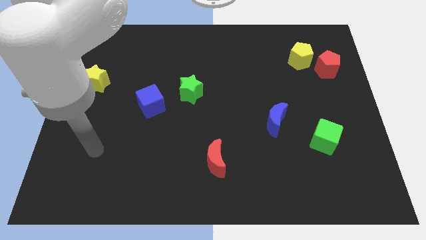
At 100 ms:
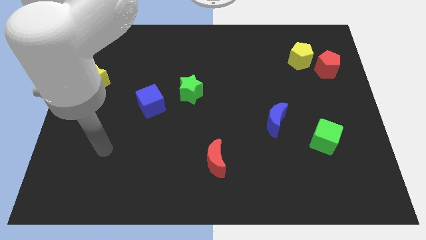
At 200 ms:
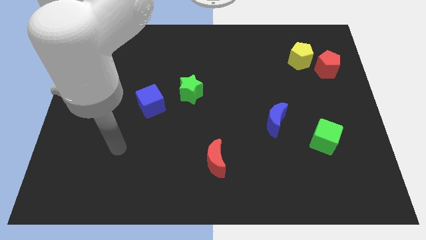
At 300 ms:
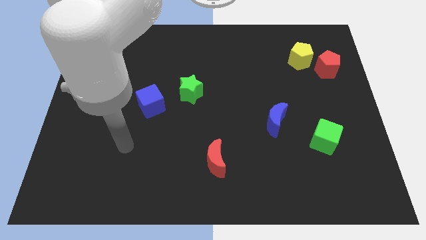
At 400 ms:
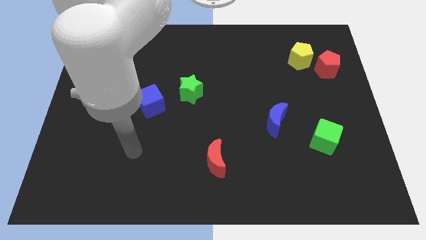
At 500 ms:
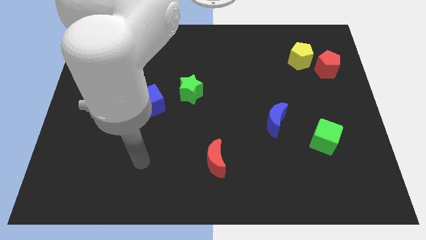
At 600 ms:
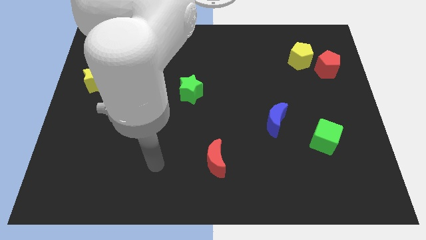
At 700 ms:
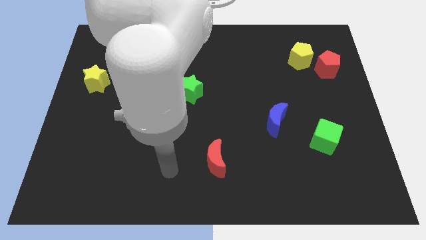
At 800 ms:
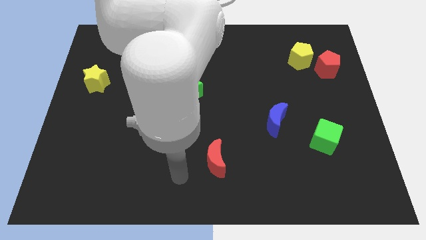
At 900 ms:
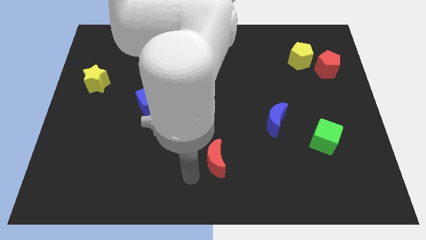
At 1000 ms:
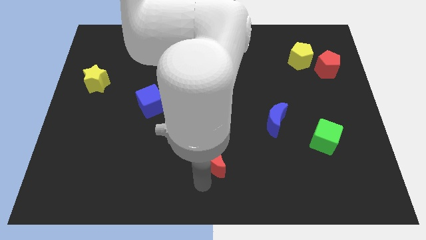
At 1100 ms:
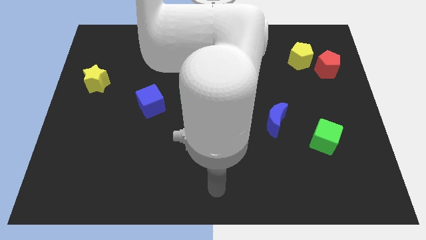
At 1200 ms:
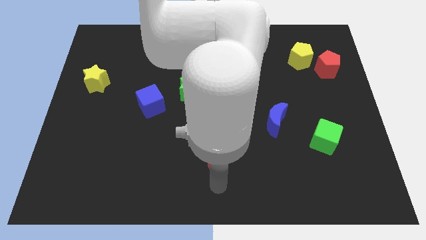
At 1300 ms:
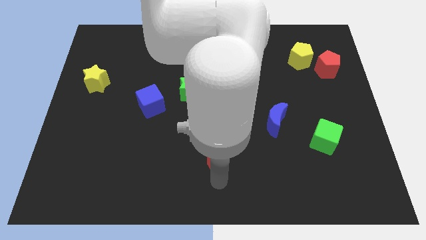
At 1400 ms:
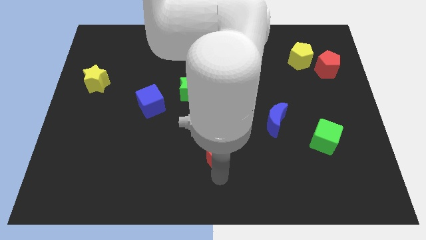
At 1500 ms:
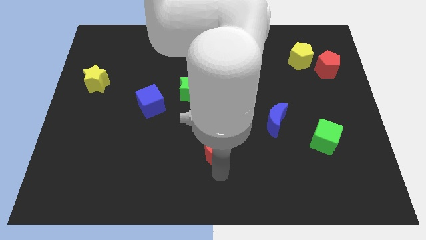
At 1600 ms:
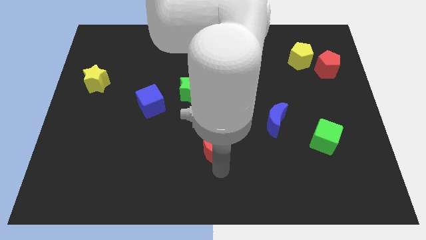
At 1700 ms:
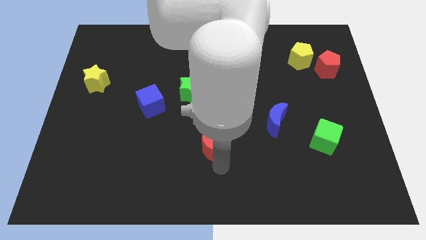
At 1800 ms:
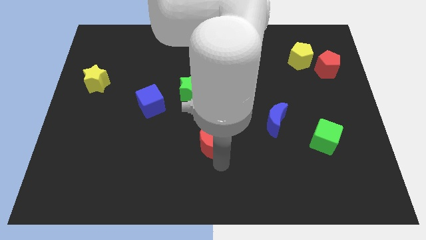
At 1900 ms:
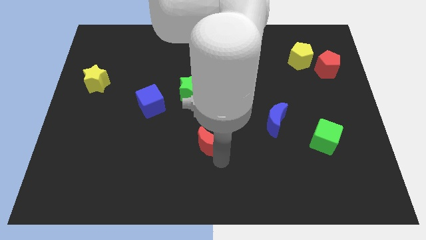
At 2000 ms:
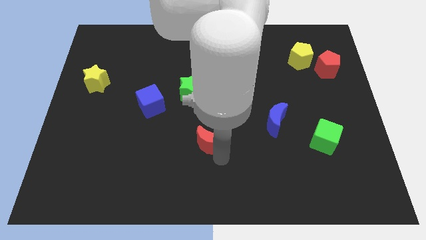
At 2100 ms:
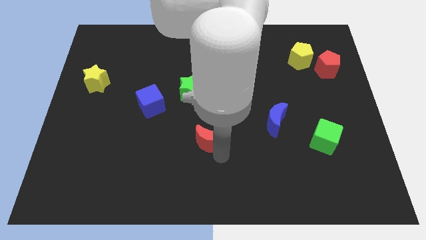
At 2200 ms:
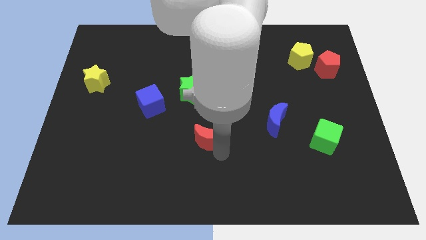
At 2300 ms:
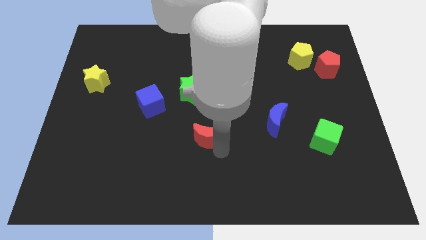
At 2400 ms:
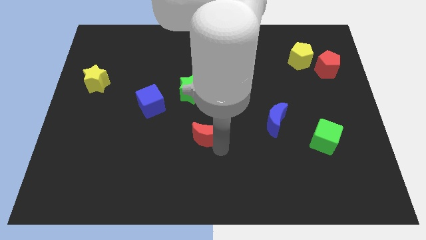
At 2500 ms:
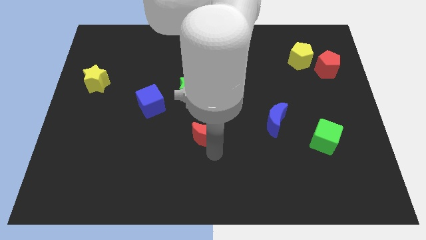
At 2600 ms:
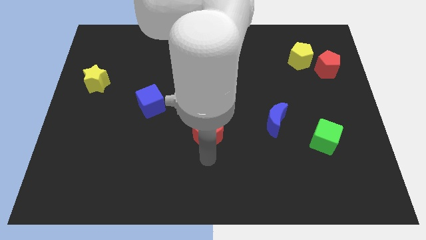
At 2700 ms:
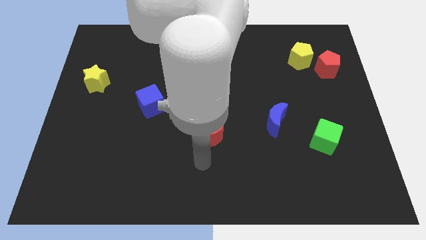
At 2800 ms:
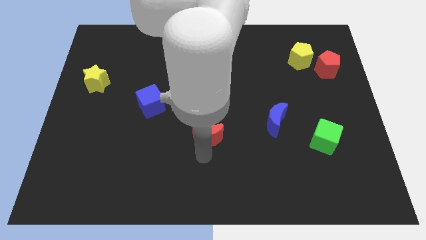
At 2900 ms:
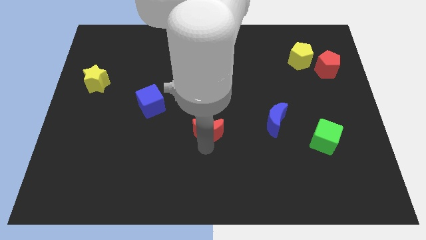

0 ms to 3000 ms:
slightly slide the red moon upwards

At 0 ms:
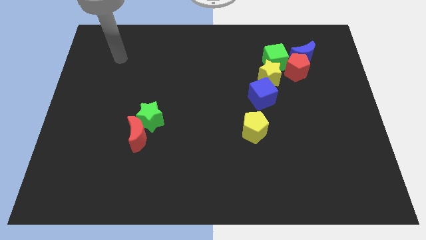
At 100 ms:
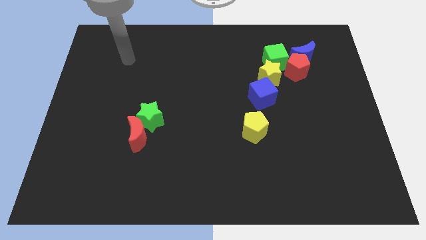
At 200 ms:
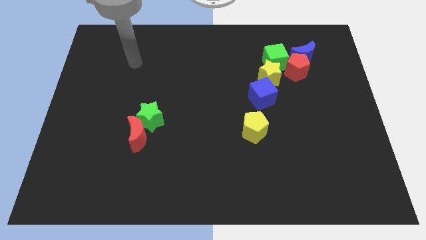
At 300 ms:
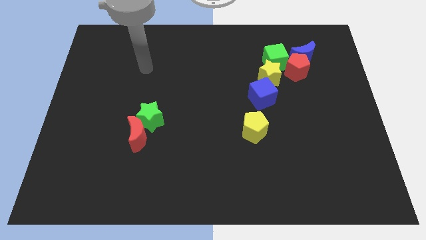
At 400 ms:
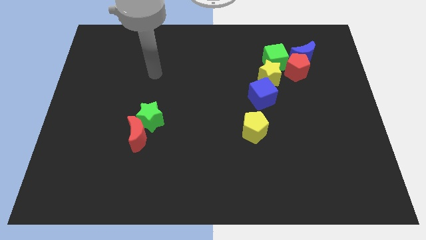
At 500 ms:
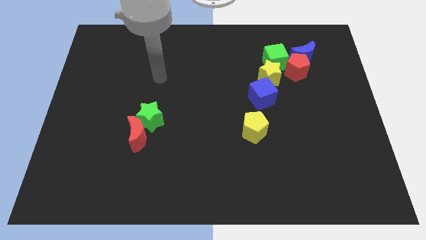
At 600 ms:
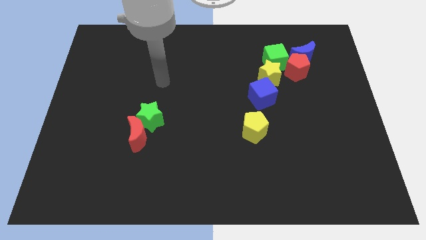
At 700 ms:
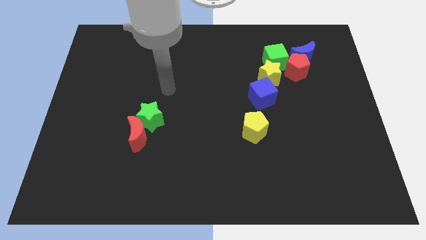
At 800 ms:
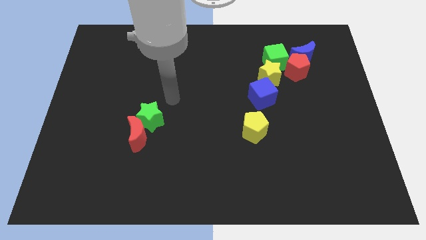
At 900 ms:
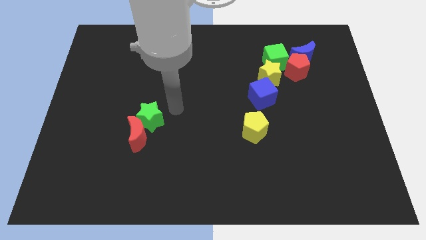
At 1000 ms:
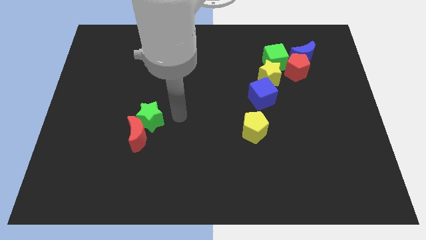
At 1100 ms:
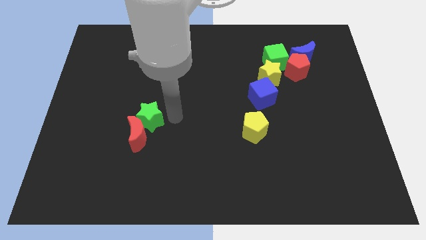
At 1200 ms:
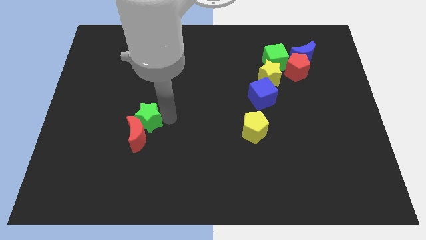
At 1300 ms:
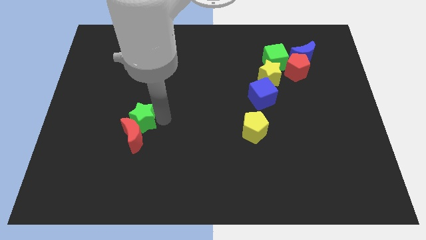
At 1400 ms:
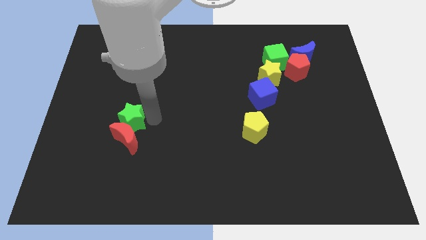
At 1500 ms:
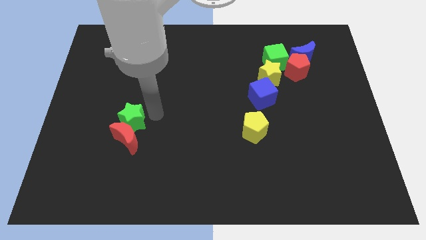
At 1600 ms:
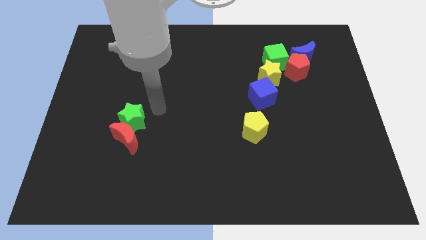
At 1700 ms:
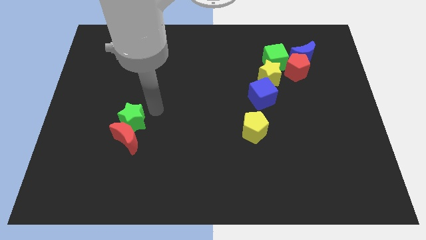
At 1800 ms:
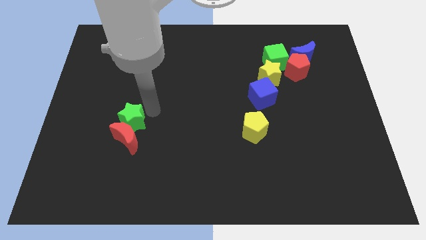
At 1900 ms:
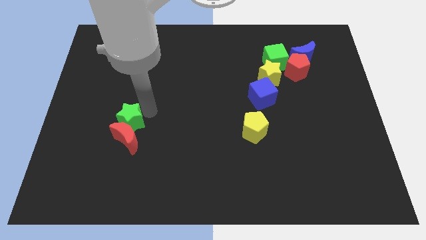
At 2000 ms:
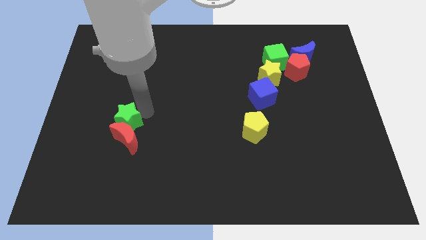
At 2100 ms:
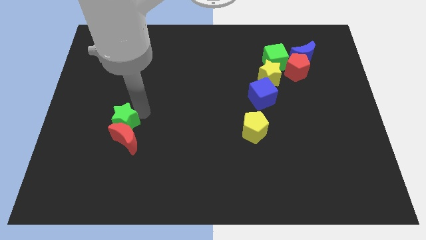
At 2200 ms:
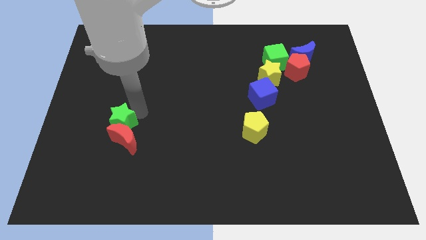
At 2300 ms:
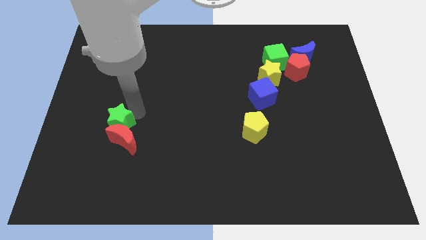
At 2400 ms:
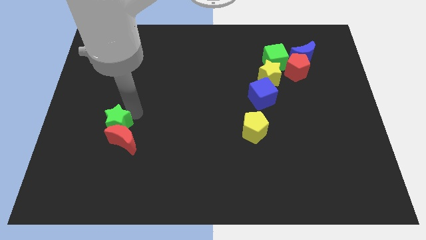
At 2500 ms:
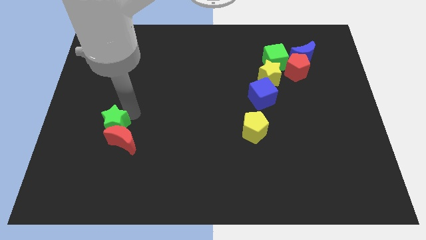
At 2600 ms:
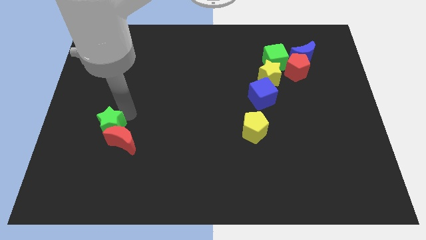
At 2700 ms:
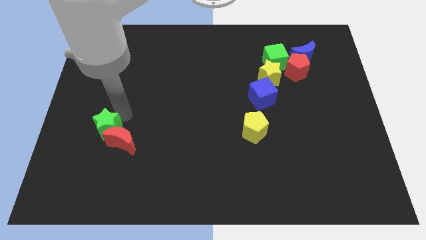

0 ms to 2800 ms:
push the green star diagonally down and to the left a little bit

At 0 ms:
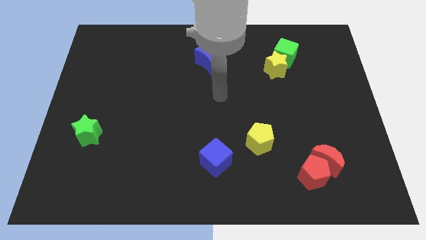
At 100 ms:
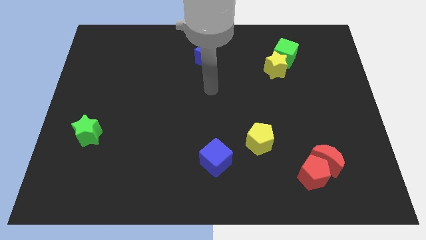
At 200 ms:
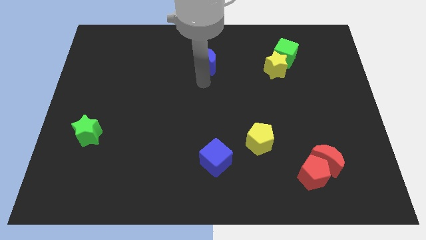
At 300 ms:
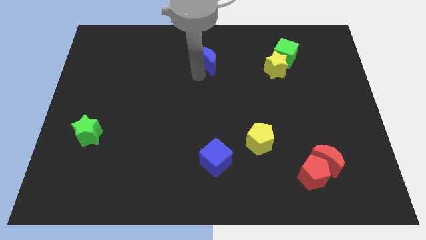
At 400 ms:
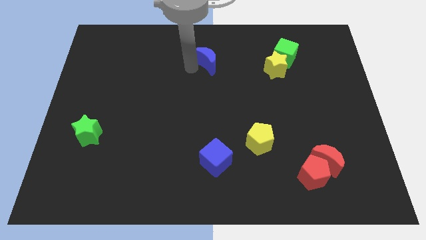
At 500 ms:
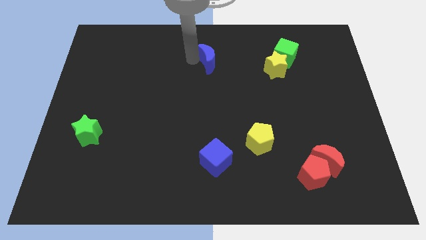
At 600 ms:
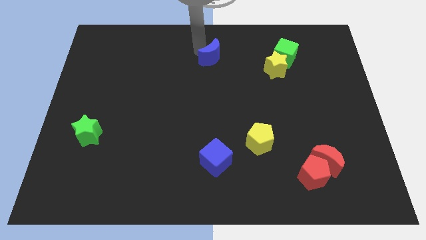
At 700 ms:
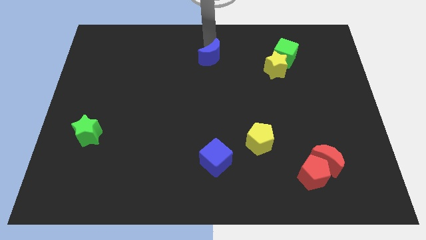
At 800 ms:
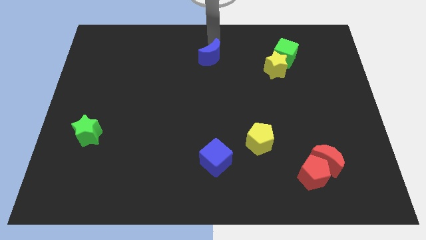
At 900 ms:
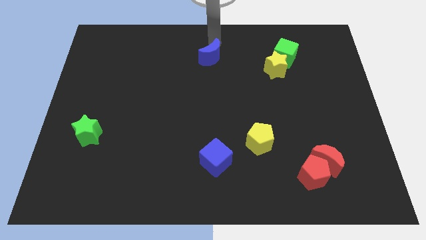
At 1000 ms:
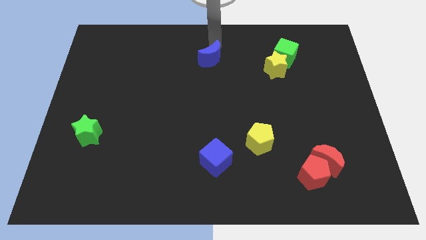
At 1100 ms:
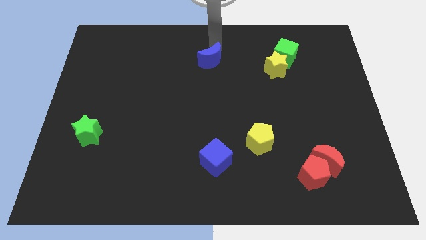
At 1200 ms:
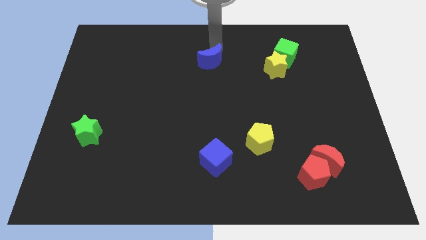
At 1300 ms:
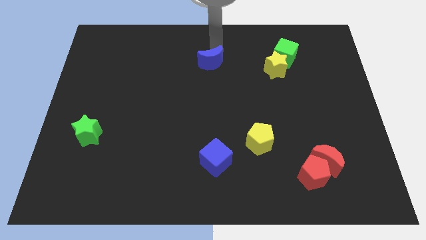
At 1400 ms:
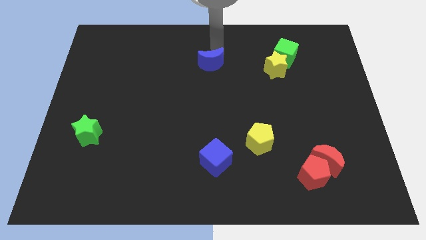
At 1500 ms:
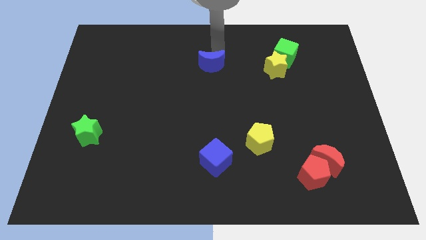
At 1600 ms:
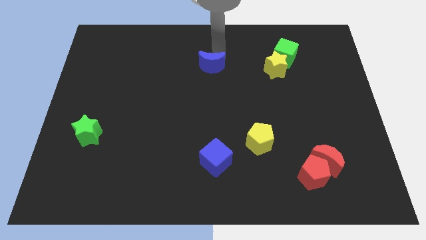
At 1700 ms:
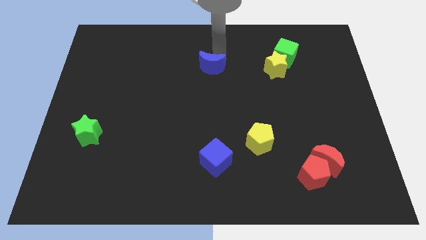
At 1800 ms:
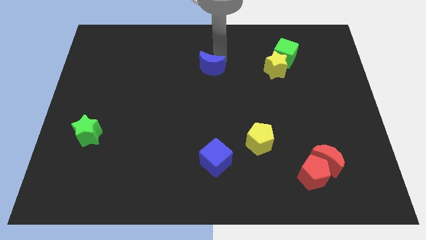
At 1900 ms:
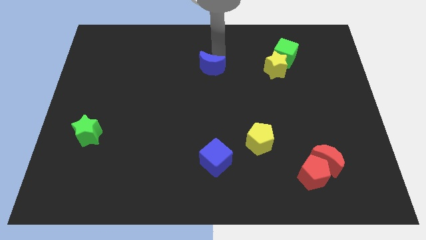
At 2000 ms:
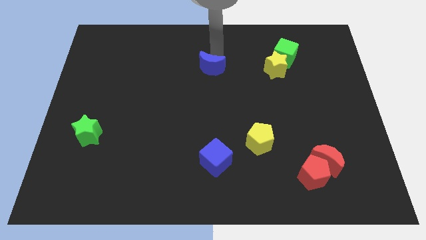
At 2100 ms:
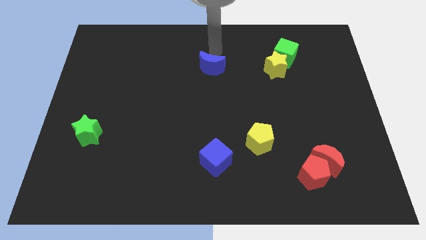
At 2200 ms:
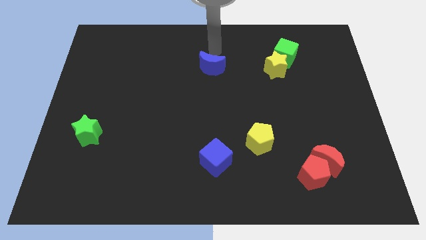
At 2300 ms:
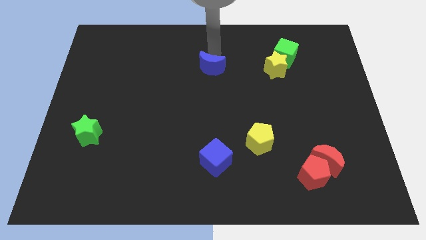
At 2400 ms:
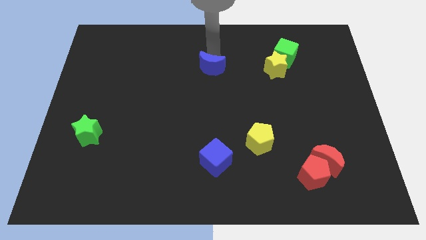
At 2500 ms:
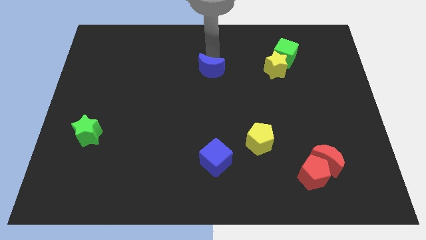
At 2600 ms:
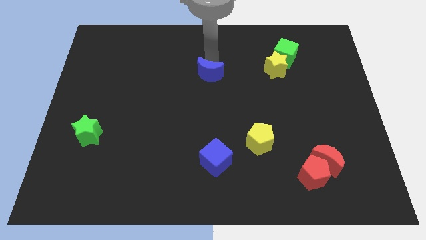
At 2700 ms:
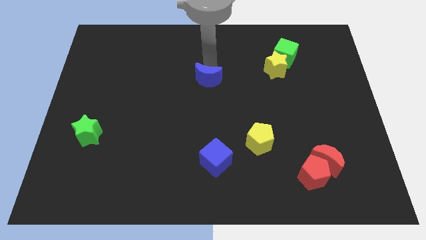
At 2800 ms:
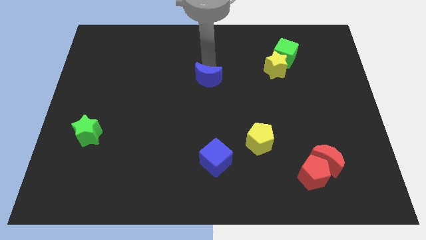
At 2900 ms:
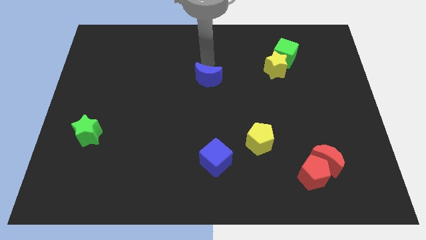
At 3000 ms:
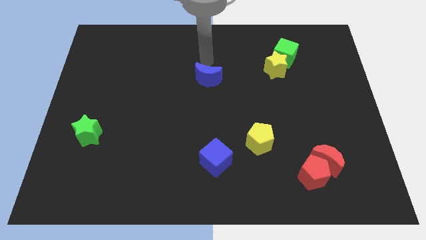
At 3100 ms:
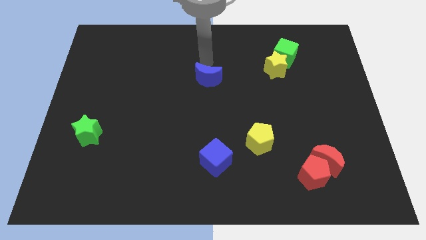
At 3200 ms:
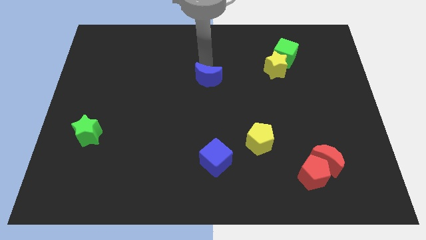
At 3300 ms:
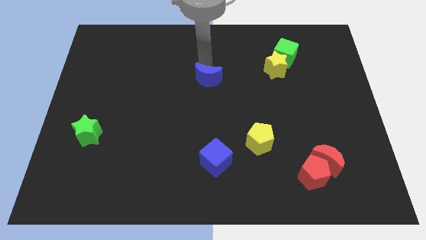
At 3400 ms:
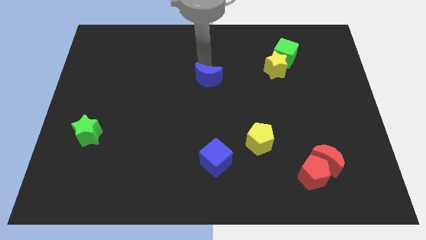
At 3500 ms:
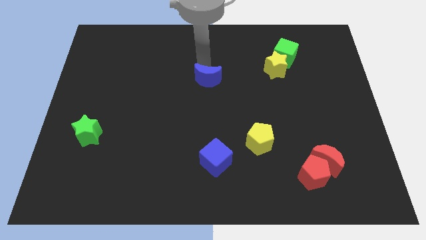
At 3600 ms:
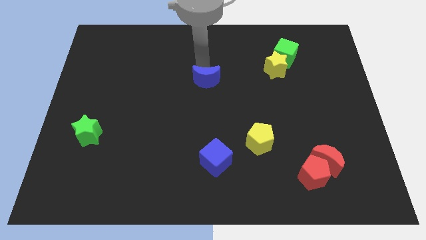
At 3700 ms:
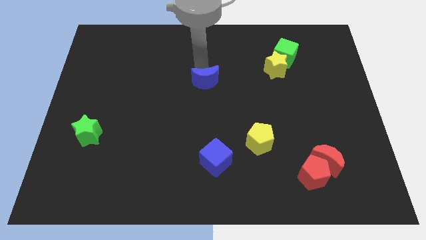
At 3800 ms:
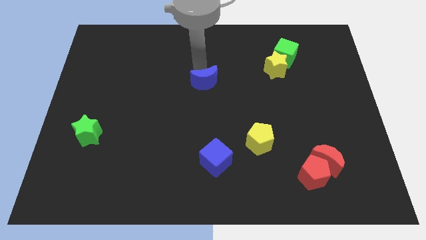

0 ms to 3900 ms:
slightly push the blue moon downwards
